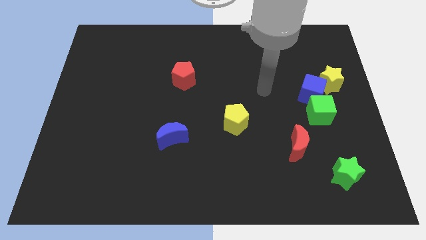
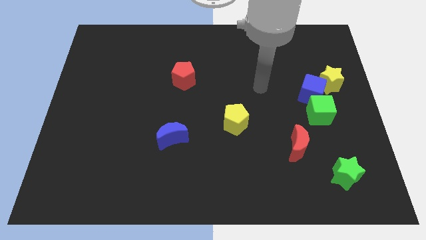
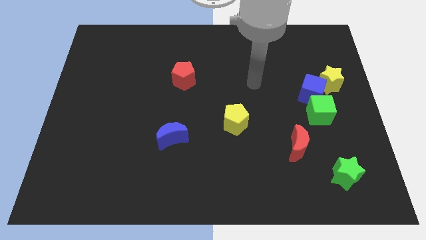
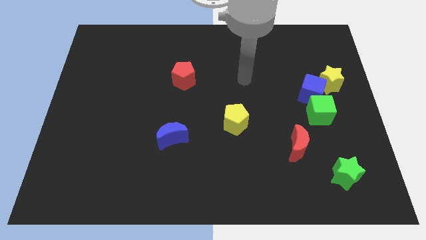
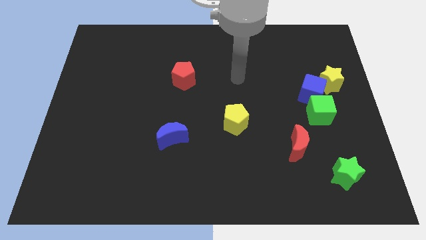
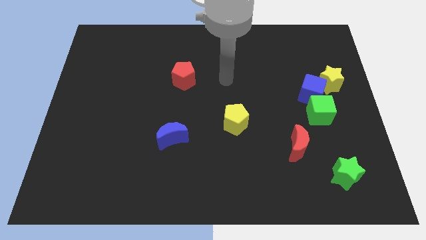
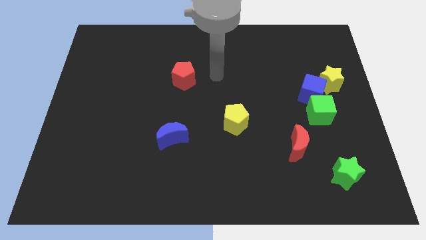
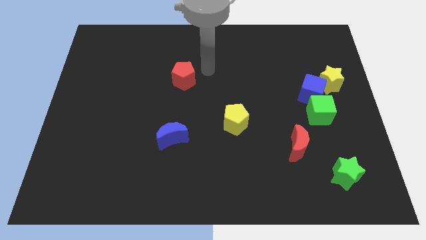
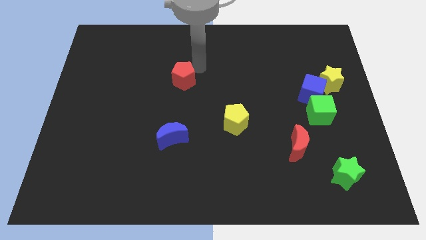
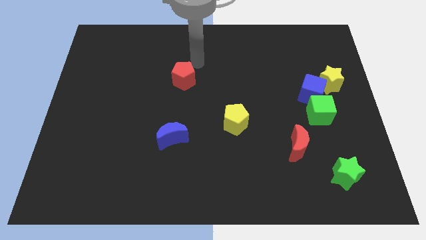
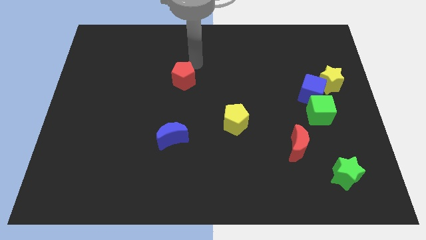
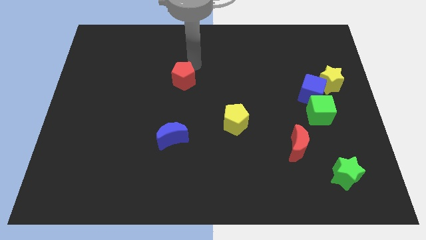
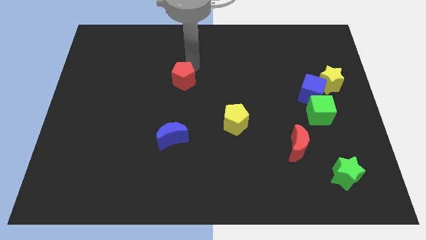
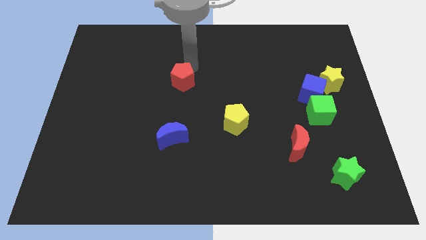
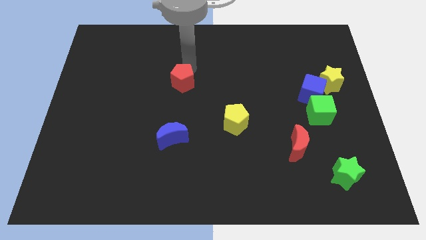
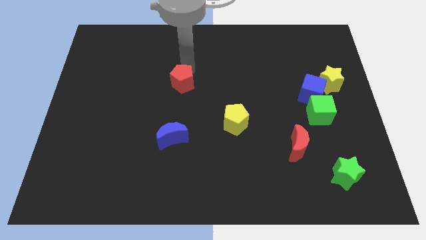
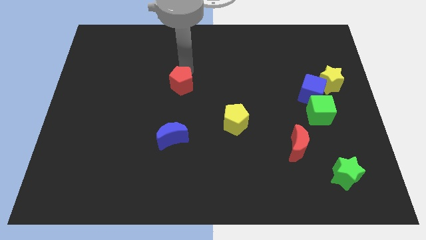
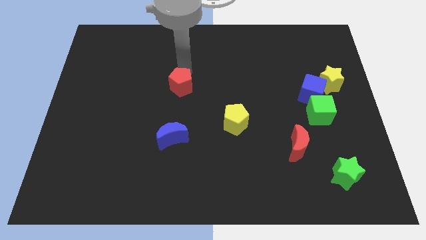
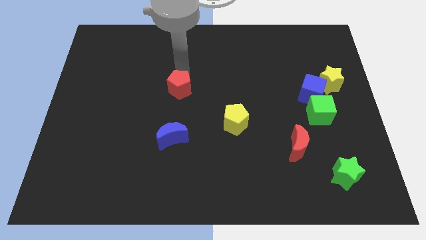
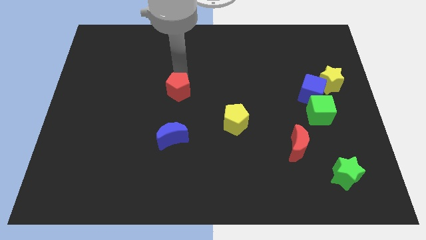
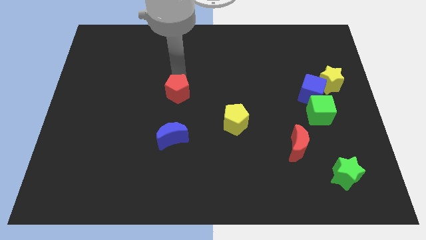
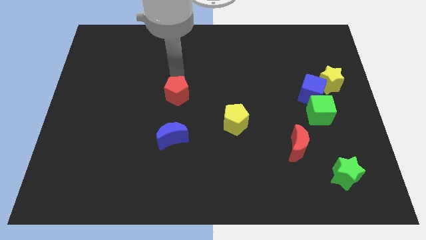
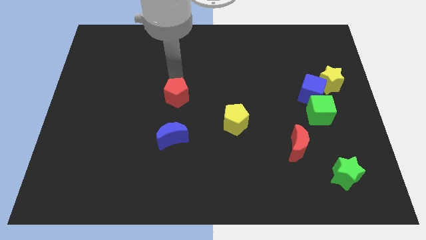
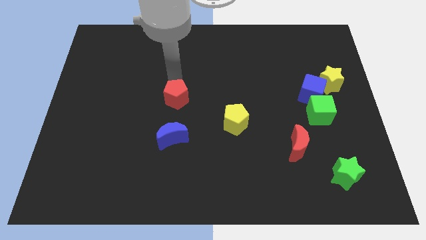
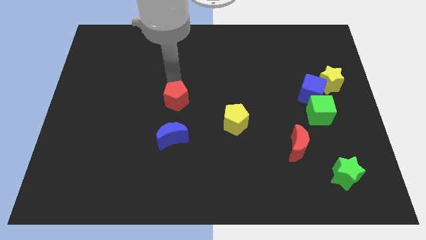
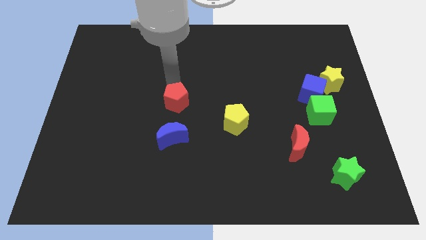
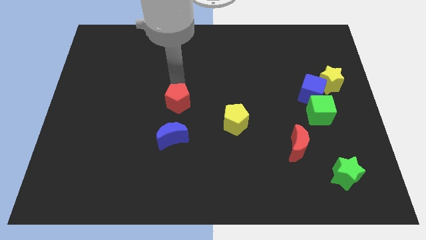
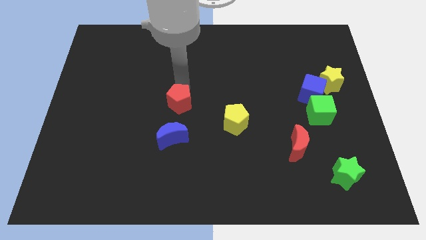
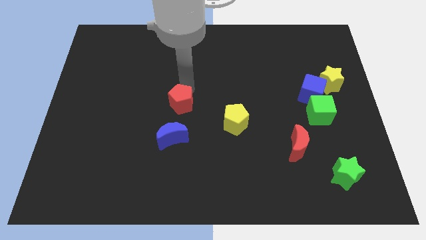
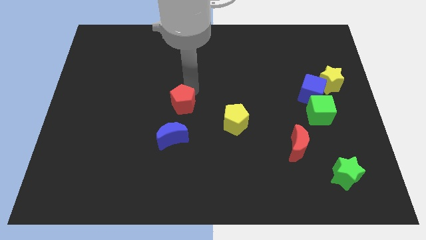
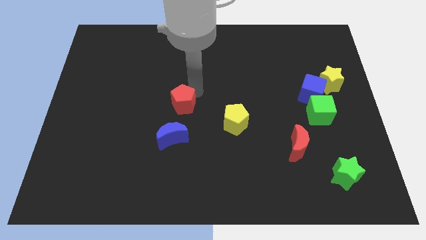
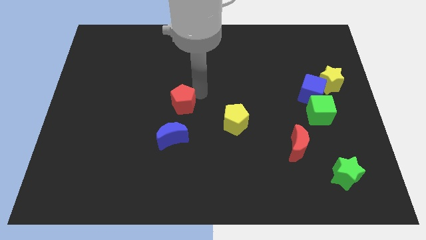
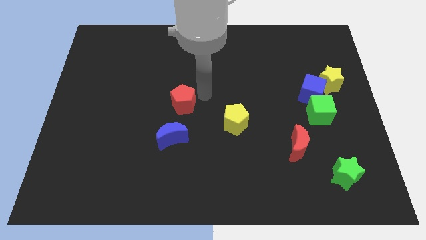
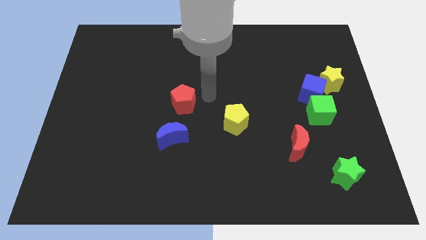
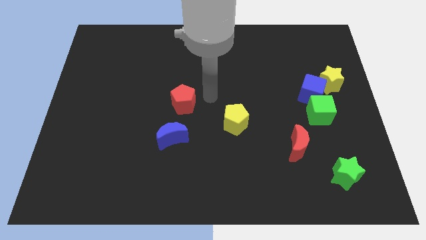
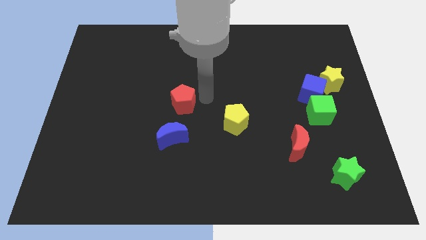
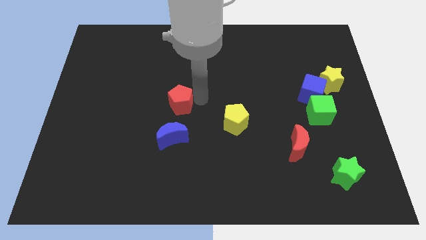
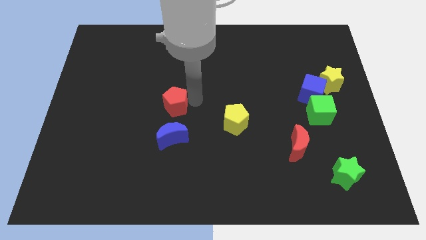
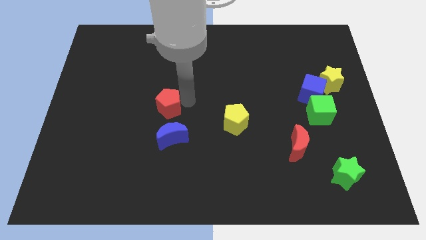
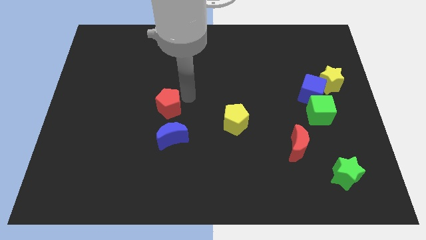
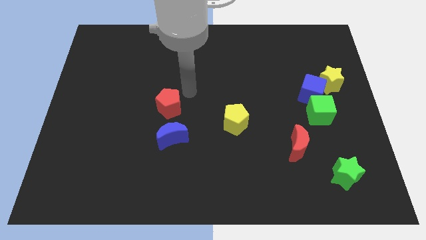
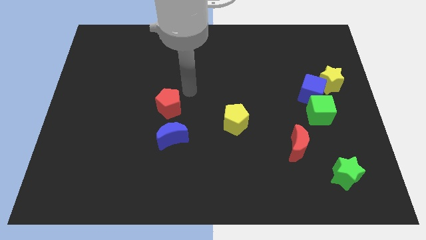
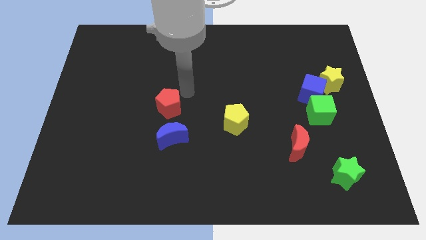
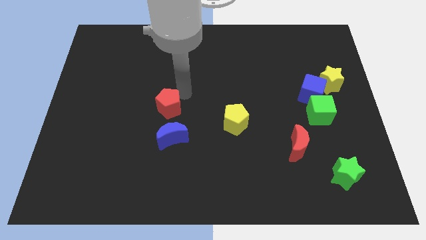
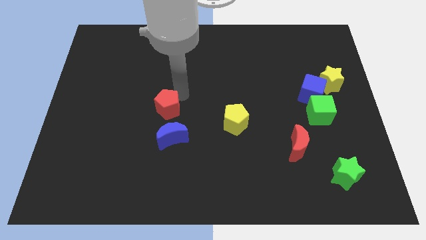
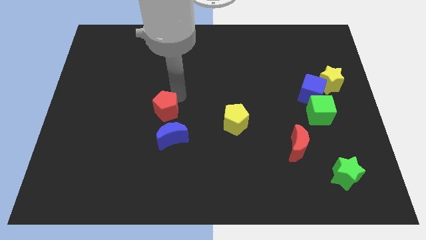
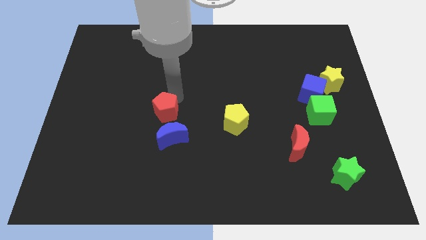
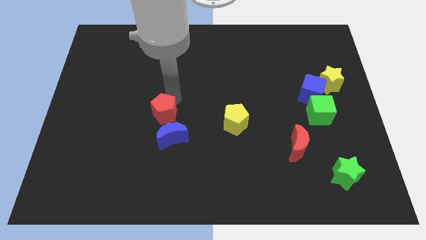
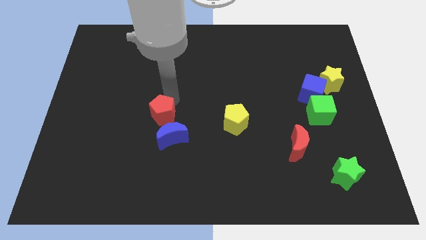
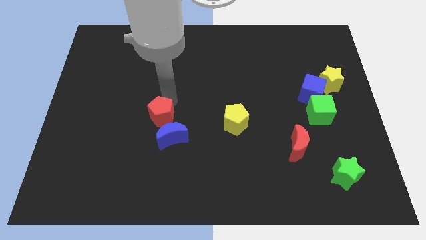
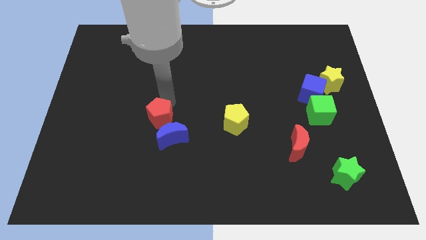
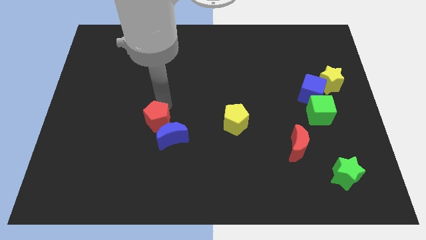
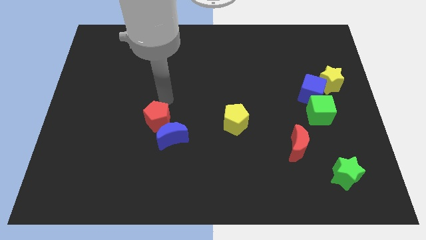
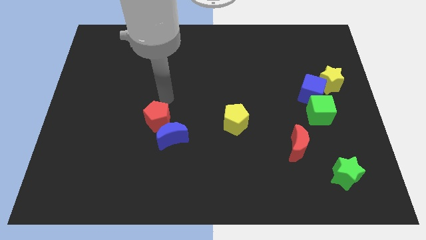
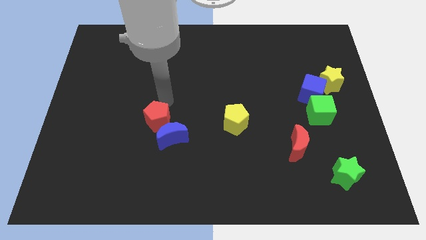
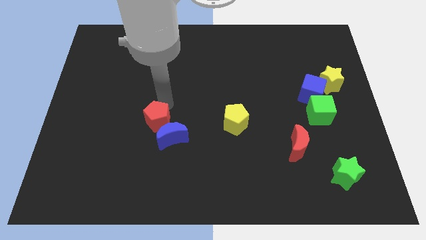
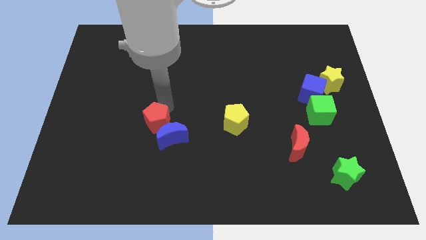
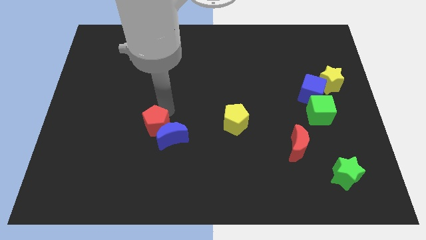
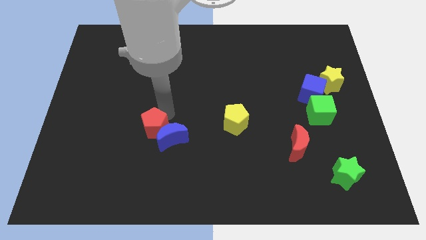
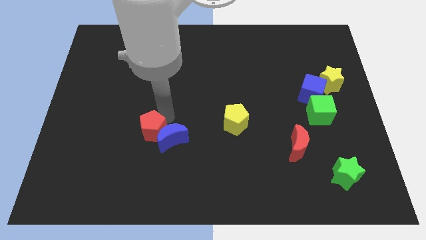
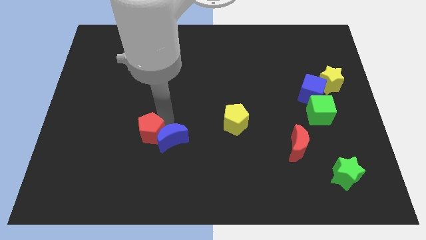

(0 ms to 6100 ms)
put the red pentagon to the bottom left of the blue moon

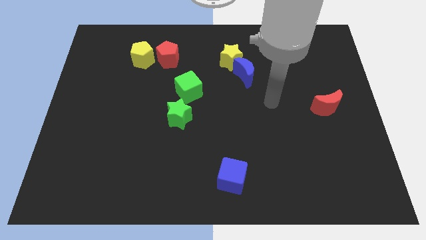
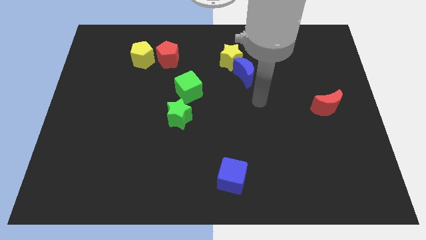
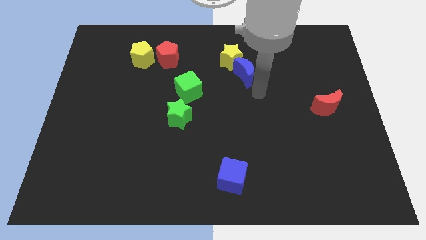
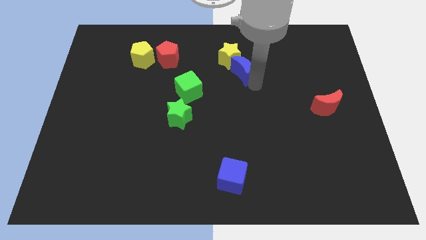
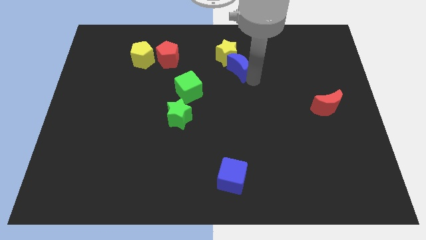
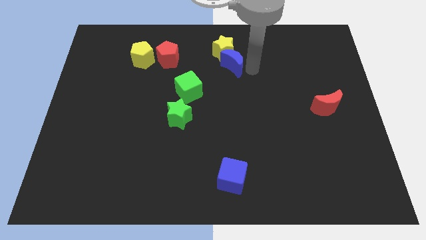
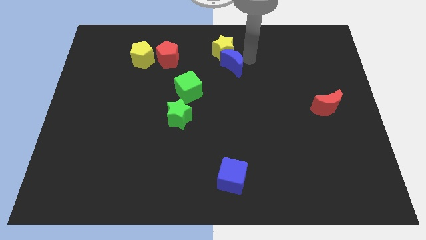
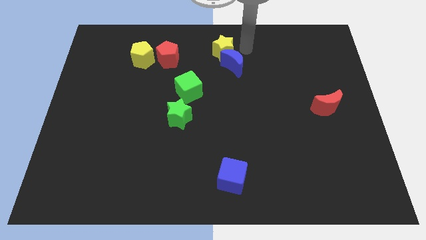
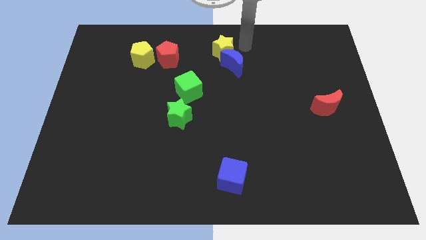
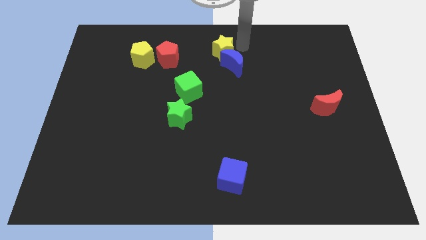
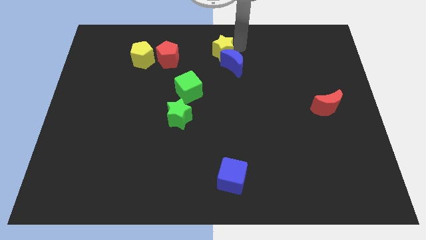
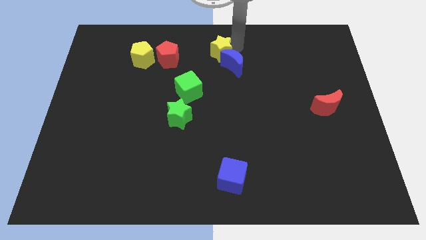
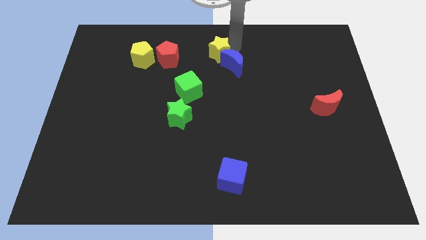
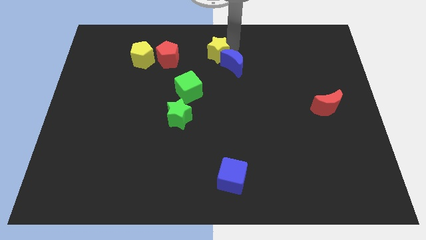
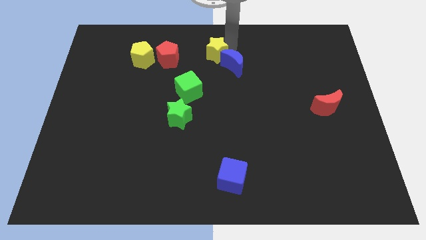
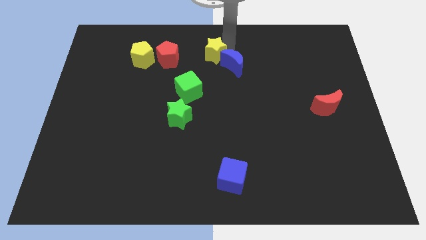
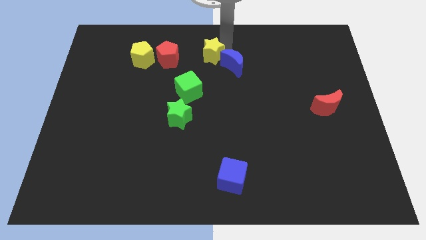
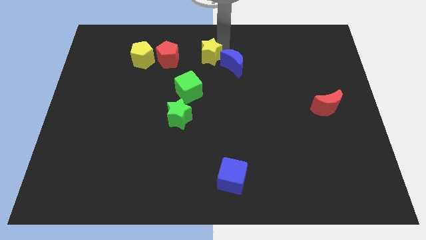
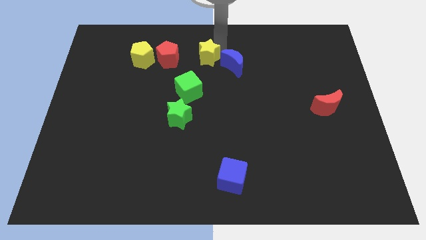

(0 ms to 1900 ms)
push the yellow star to the top of the green cube

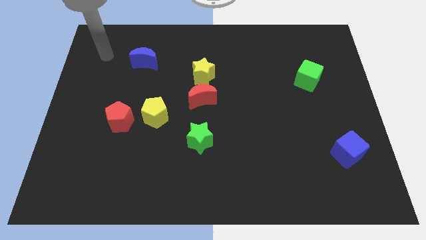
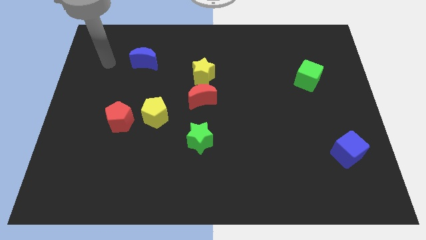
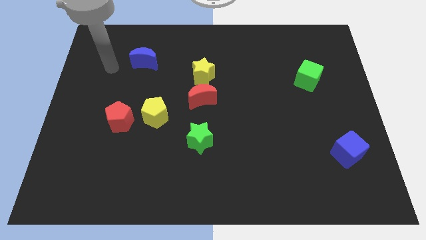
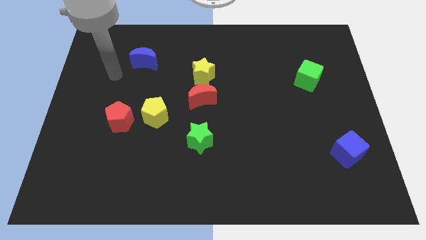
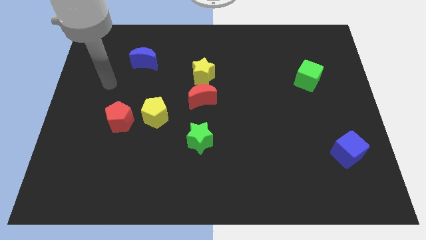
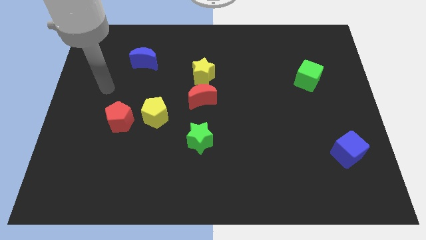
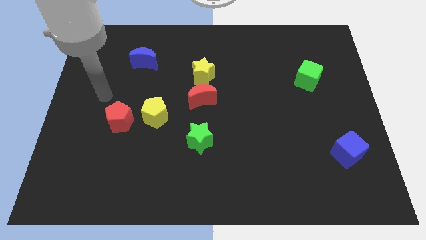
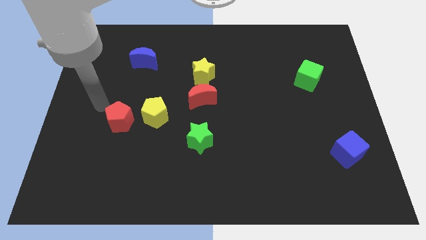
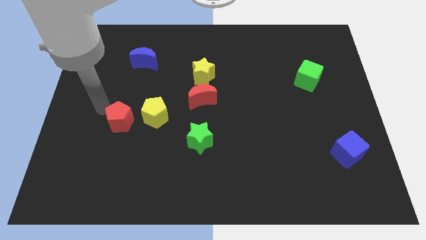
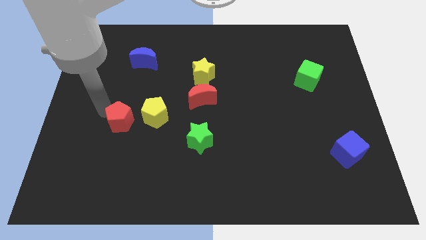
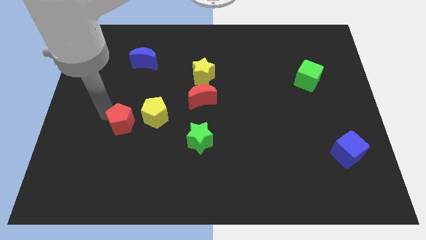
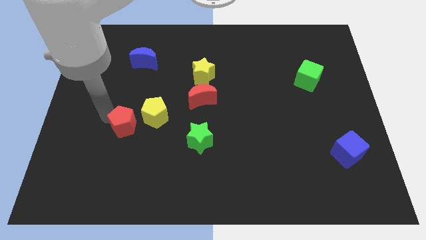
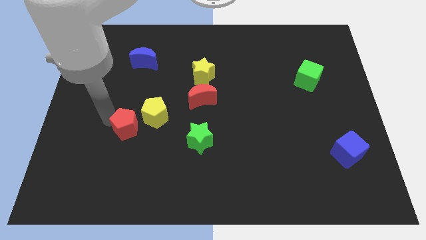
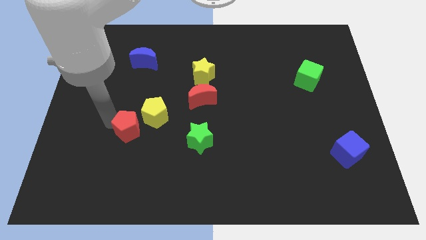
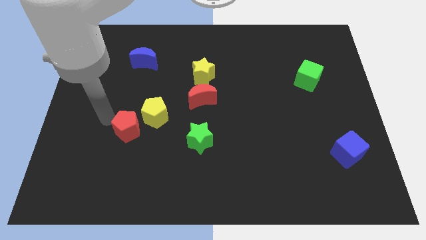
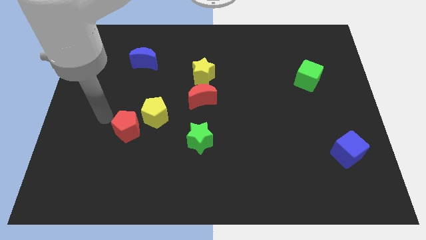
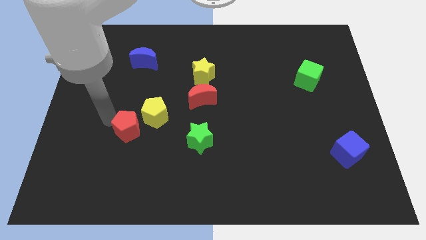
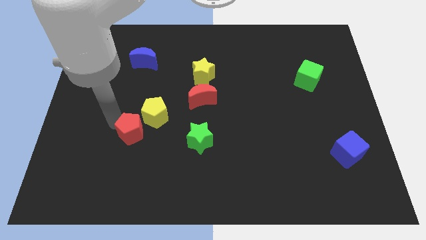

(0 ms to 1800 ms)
push the red pentagon to the left side of the green star
